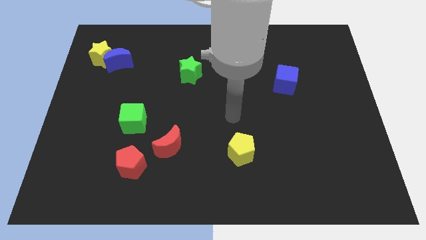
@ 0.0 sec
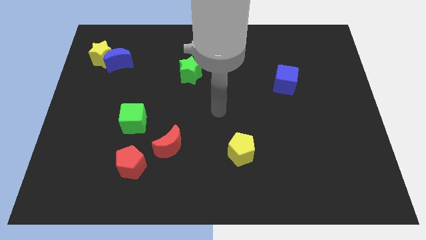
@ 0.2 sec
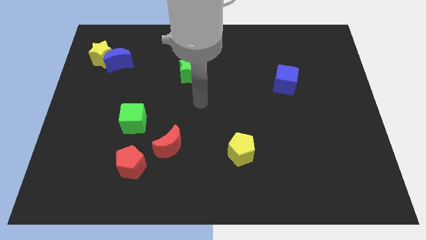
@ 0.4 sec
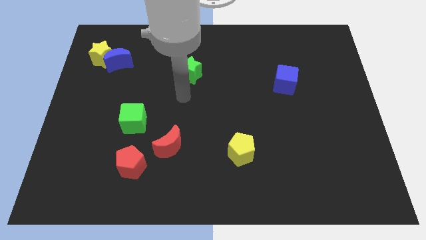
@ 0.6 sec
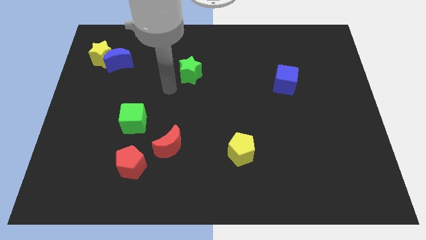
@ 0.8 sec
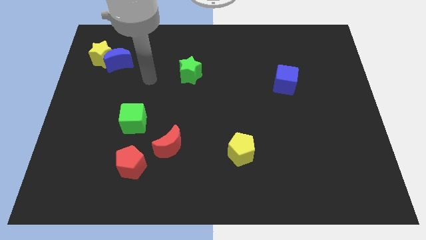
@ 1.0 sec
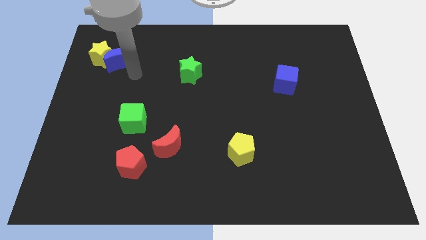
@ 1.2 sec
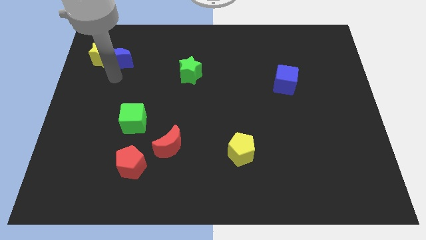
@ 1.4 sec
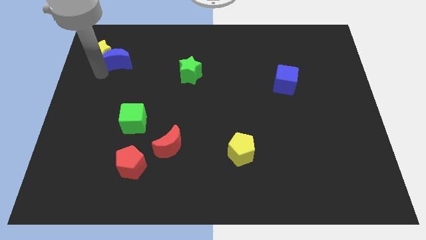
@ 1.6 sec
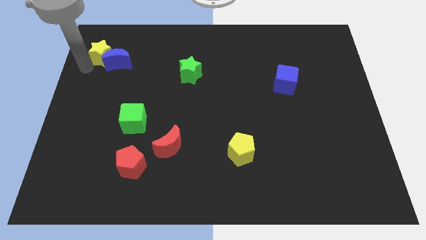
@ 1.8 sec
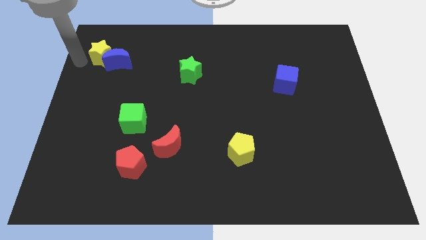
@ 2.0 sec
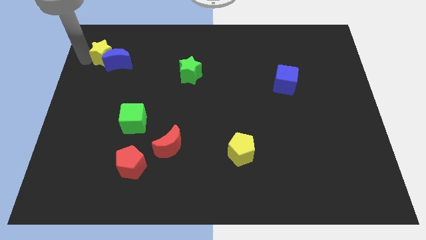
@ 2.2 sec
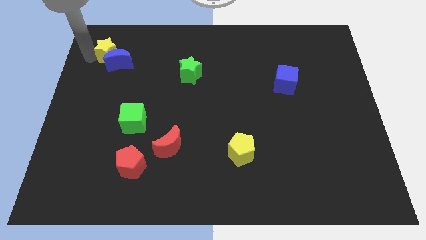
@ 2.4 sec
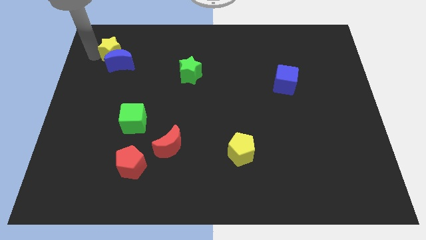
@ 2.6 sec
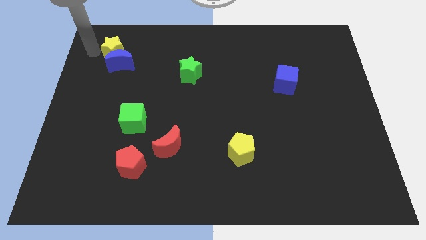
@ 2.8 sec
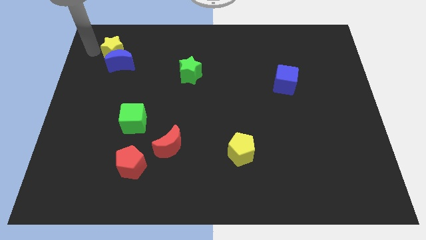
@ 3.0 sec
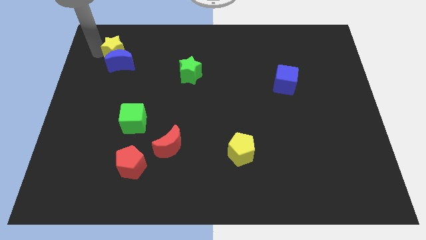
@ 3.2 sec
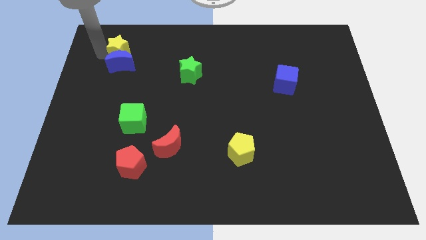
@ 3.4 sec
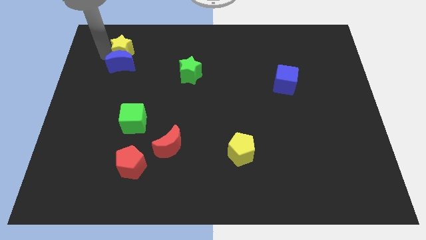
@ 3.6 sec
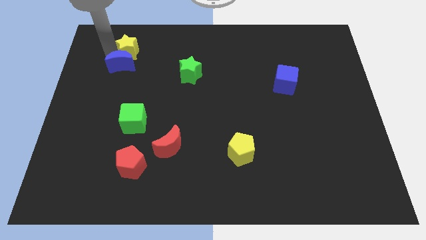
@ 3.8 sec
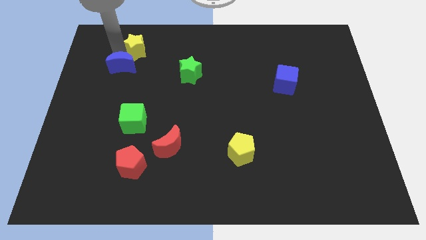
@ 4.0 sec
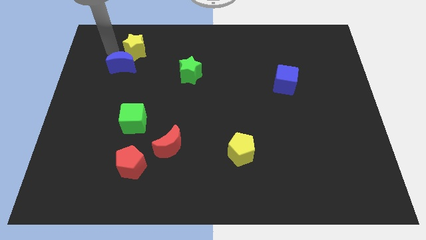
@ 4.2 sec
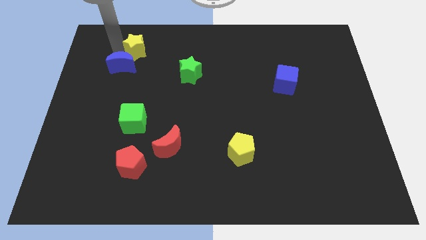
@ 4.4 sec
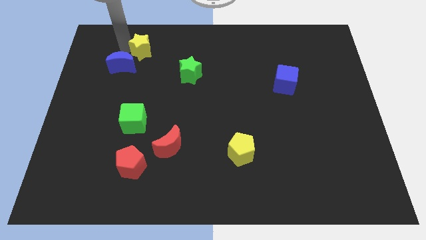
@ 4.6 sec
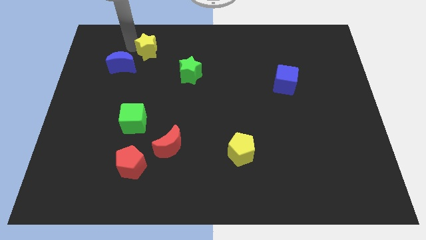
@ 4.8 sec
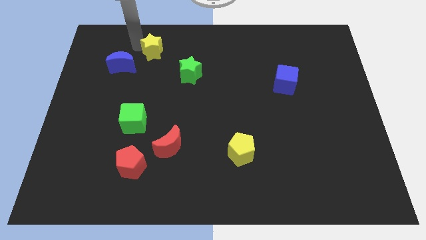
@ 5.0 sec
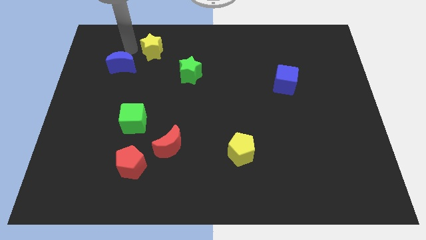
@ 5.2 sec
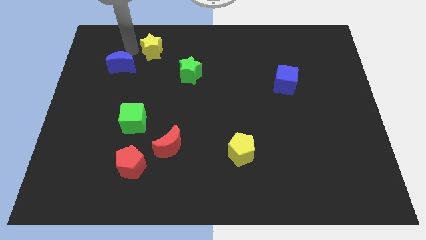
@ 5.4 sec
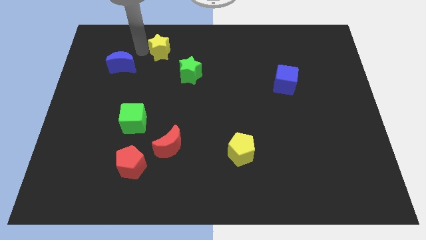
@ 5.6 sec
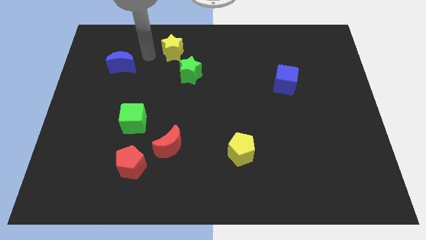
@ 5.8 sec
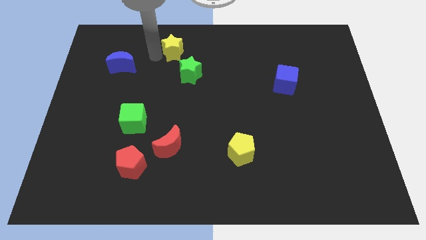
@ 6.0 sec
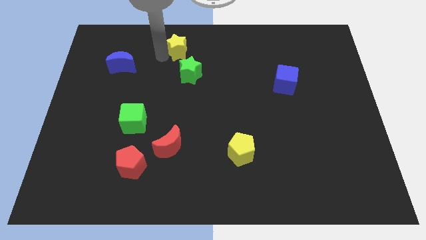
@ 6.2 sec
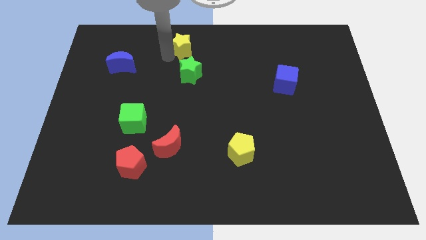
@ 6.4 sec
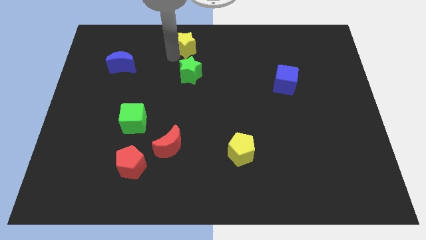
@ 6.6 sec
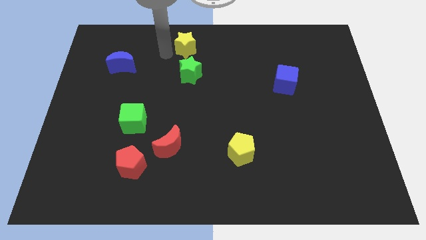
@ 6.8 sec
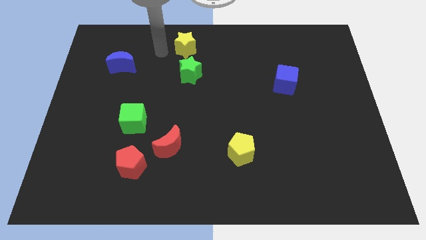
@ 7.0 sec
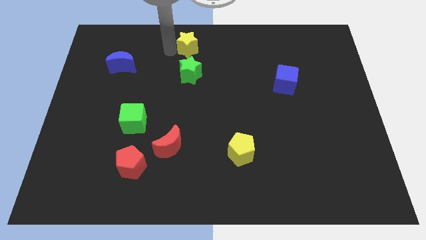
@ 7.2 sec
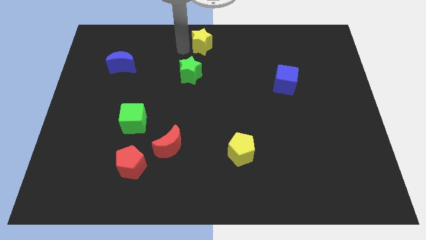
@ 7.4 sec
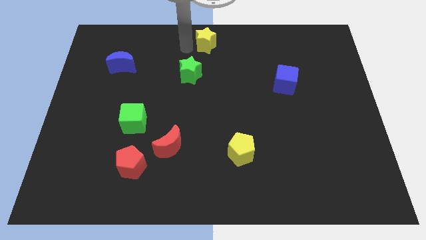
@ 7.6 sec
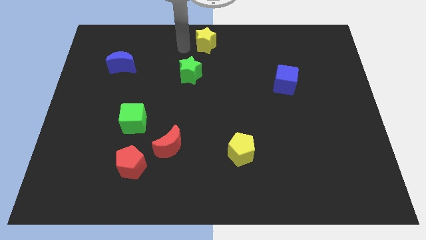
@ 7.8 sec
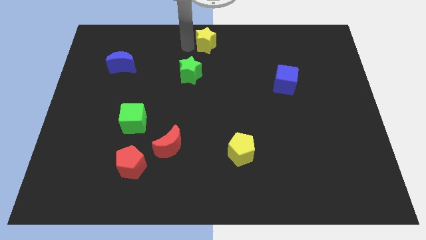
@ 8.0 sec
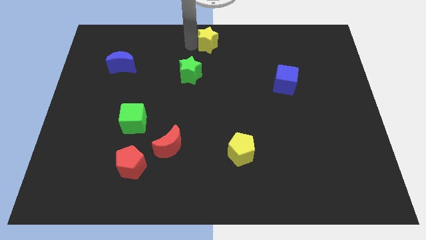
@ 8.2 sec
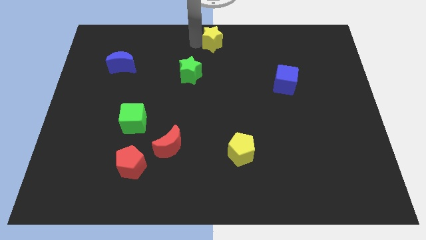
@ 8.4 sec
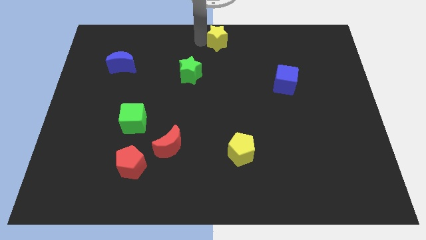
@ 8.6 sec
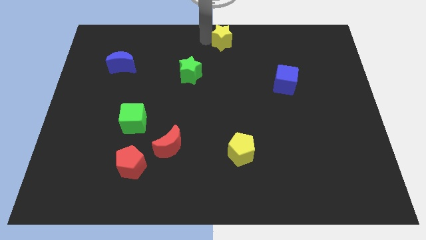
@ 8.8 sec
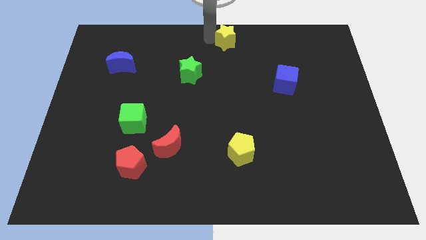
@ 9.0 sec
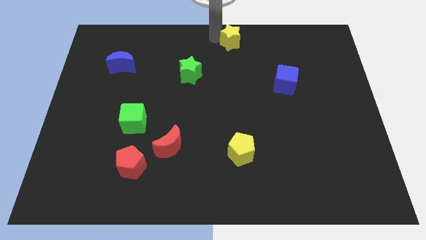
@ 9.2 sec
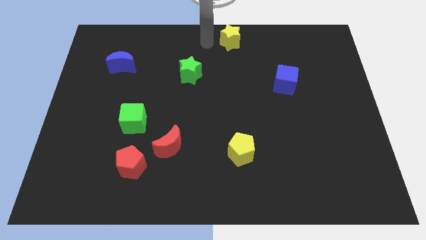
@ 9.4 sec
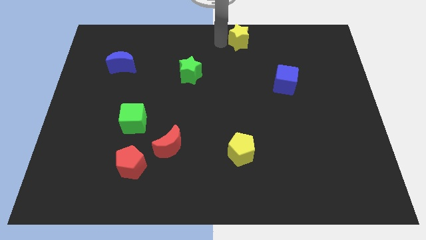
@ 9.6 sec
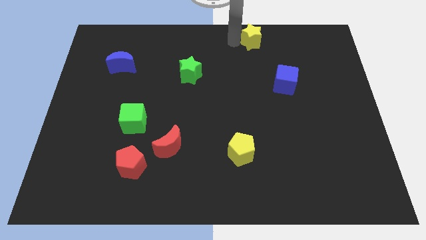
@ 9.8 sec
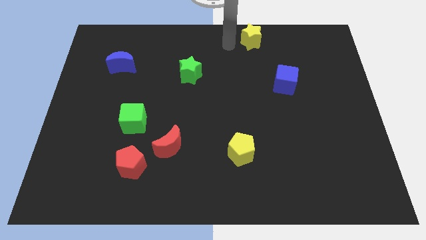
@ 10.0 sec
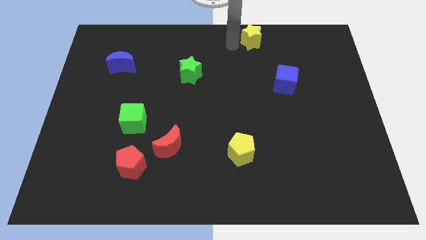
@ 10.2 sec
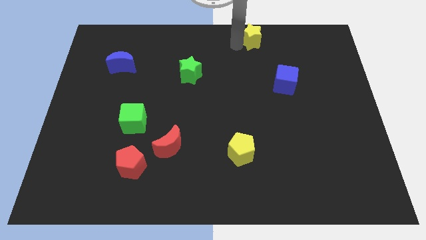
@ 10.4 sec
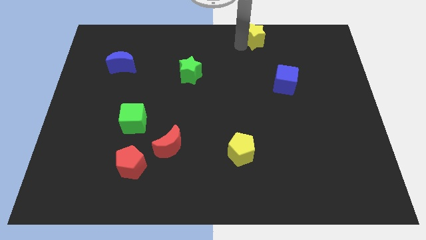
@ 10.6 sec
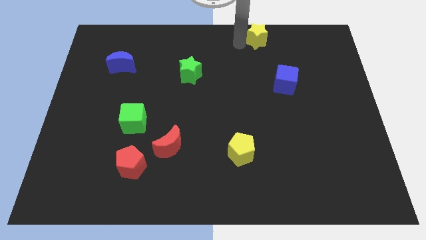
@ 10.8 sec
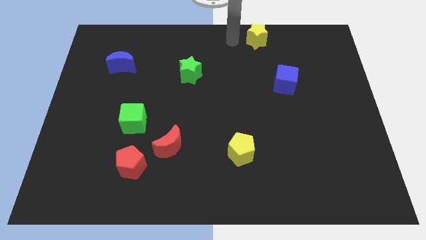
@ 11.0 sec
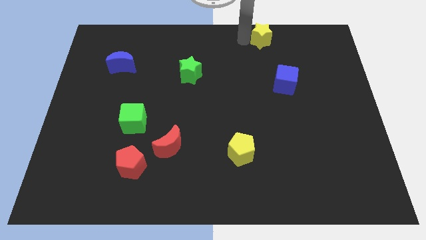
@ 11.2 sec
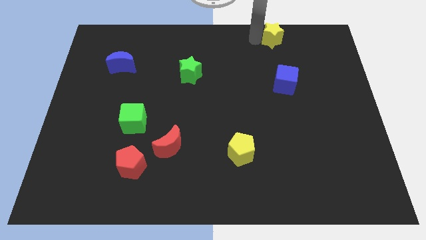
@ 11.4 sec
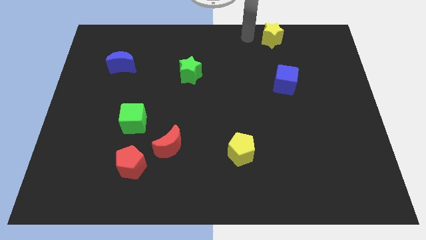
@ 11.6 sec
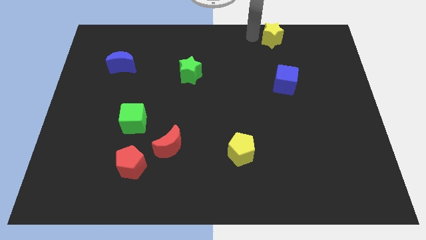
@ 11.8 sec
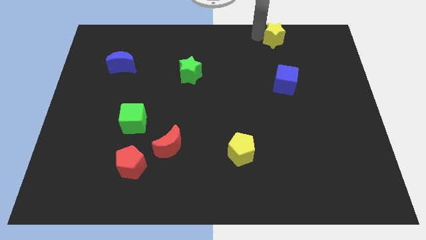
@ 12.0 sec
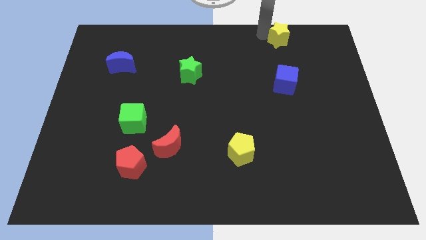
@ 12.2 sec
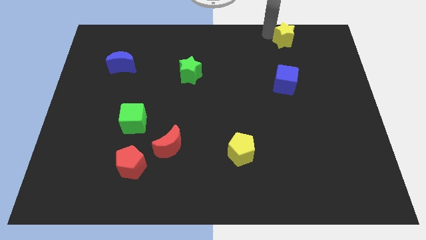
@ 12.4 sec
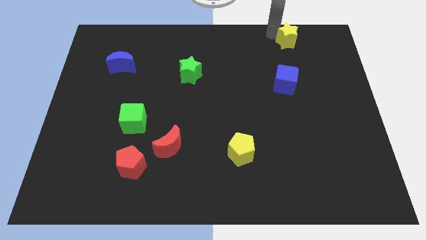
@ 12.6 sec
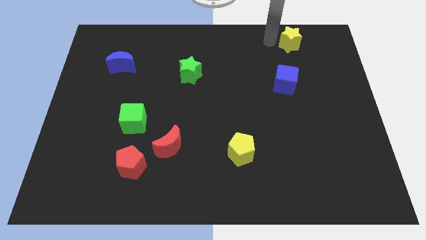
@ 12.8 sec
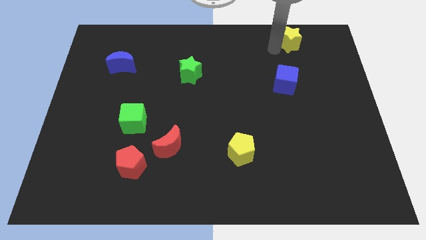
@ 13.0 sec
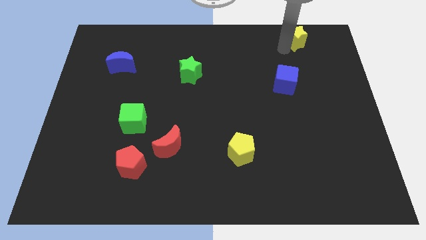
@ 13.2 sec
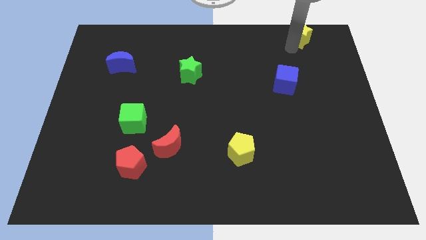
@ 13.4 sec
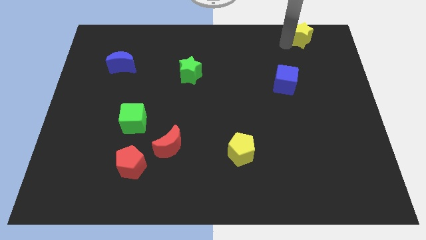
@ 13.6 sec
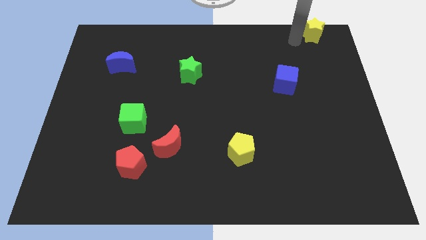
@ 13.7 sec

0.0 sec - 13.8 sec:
push the yellow star to the top right
